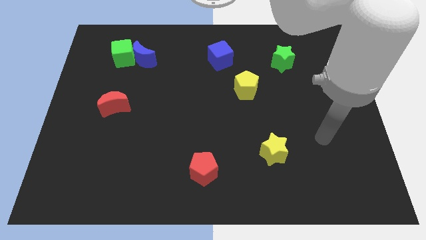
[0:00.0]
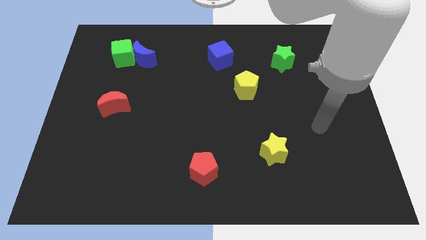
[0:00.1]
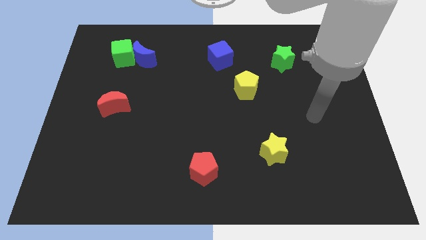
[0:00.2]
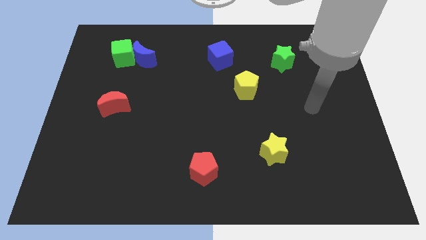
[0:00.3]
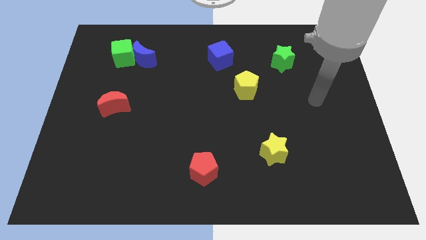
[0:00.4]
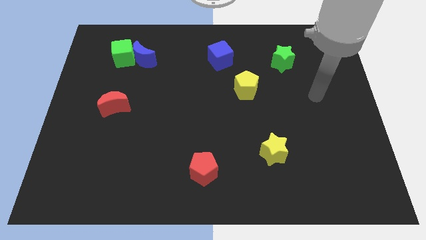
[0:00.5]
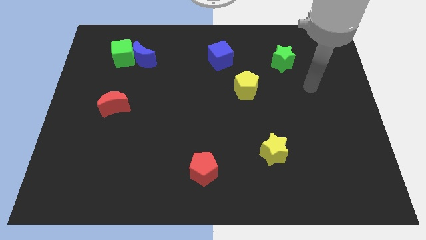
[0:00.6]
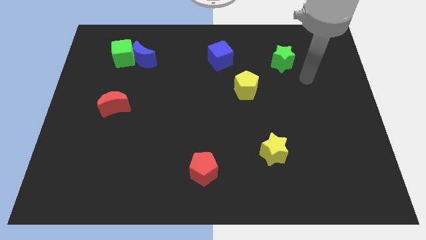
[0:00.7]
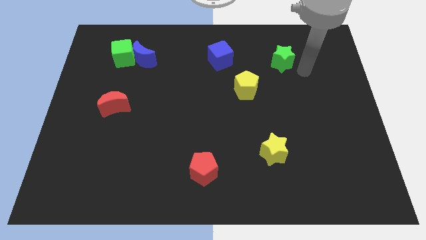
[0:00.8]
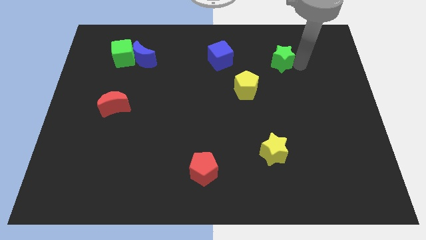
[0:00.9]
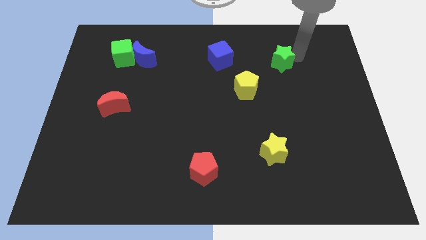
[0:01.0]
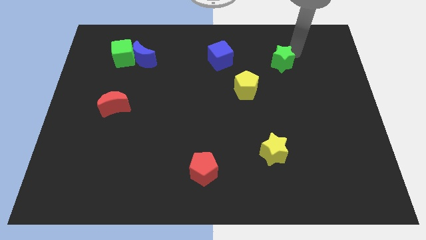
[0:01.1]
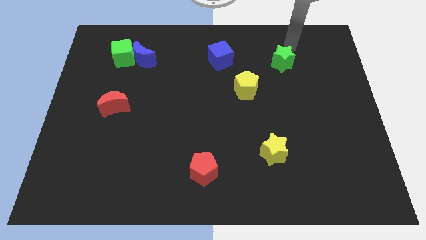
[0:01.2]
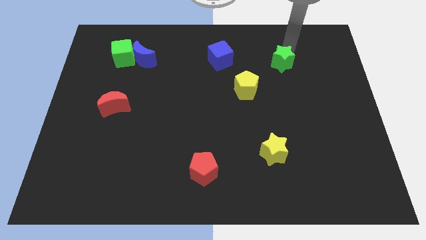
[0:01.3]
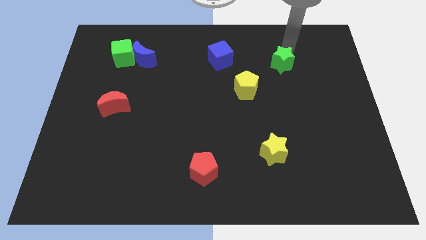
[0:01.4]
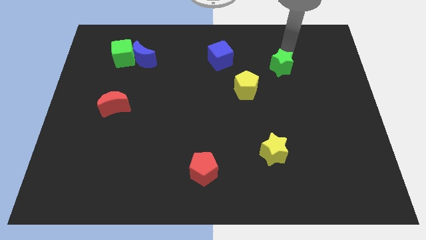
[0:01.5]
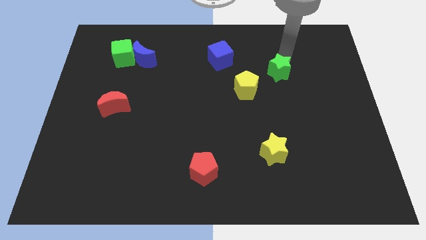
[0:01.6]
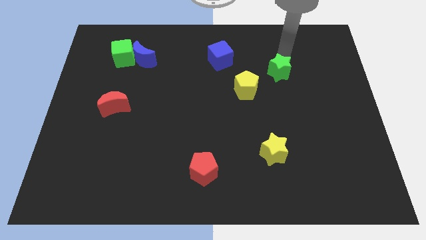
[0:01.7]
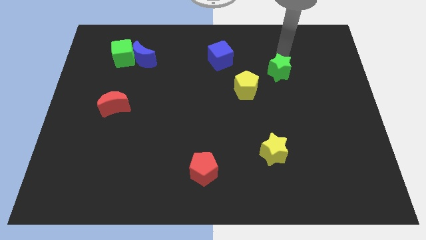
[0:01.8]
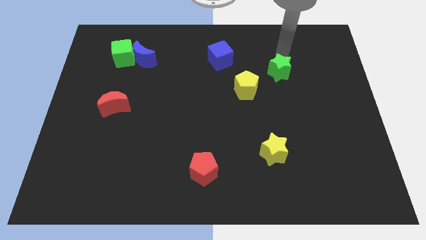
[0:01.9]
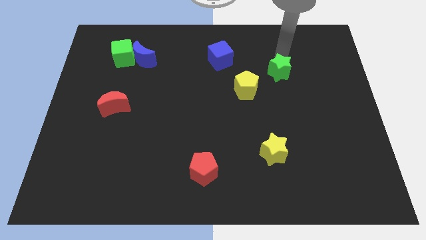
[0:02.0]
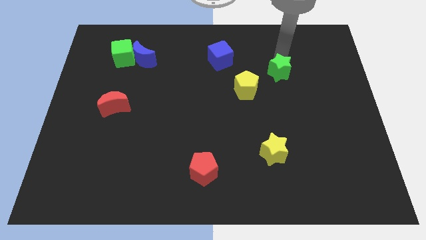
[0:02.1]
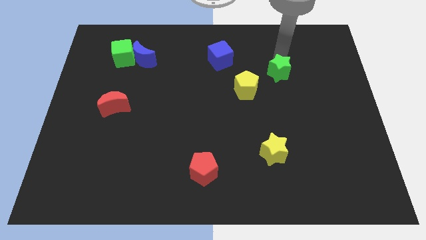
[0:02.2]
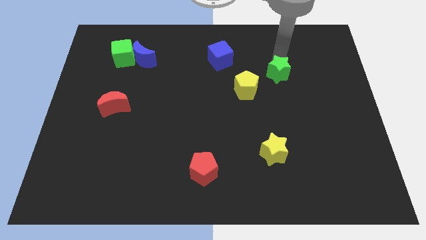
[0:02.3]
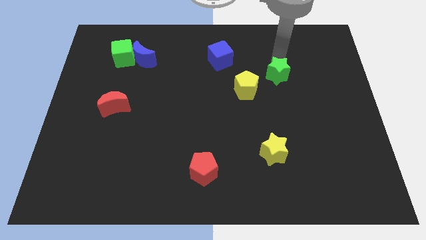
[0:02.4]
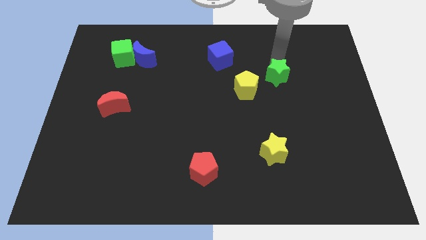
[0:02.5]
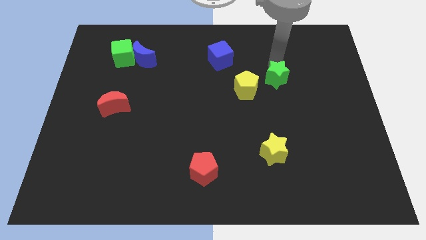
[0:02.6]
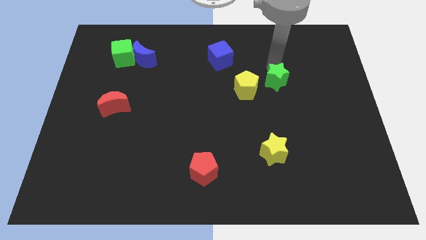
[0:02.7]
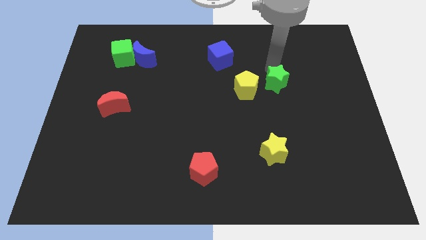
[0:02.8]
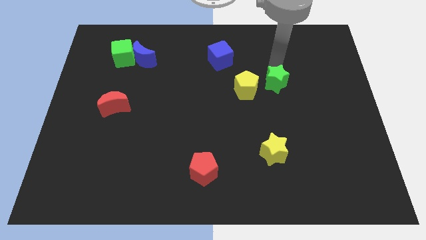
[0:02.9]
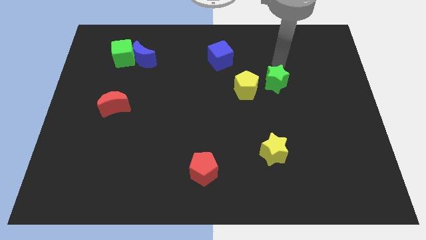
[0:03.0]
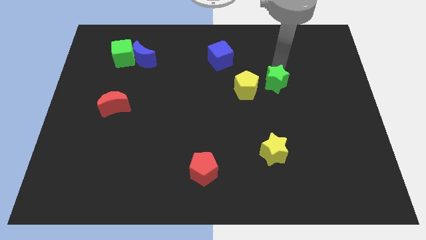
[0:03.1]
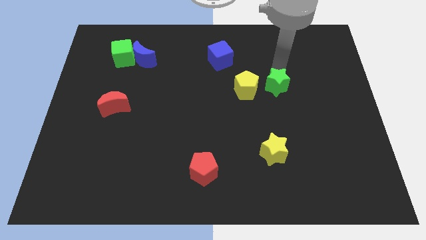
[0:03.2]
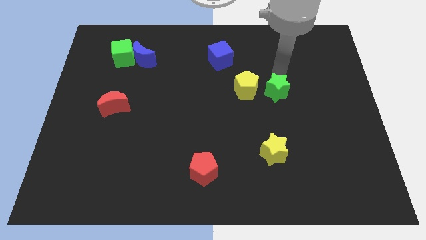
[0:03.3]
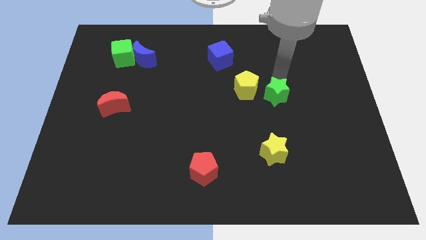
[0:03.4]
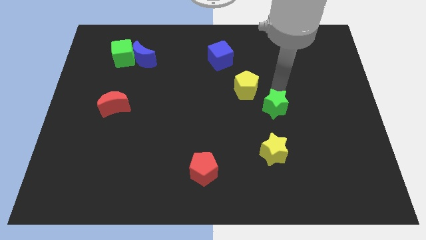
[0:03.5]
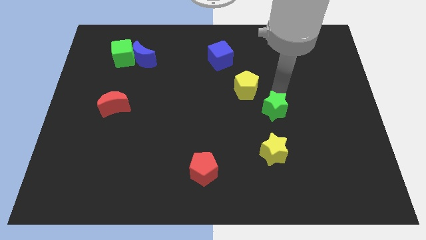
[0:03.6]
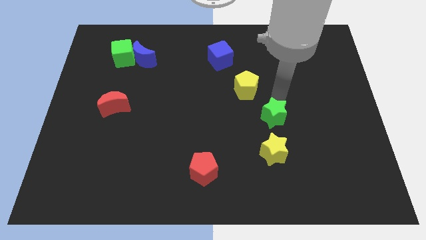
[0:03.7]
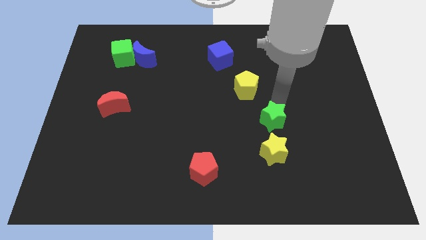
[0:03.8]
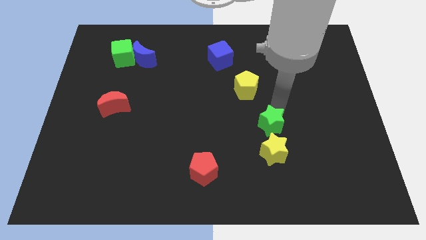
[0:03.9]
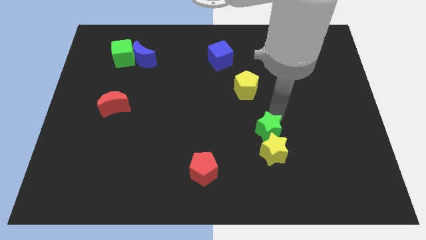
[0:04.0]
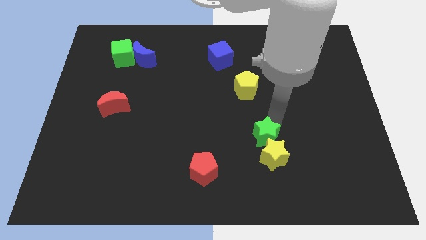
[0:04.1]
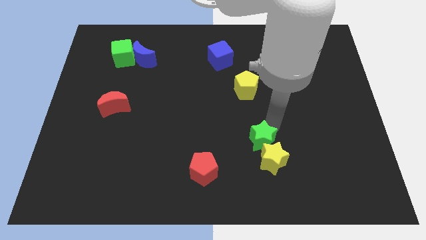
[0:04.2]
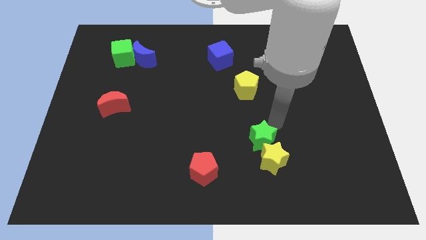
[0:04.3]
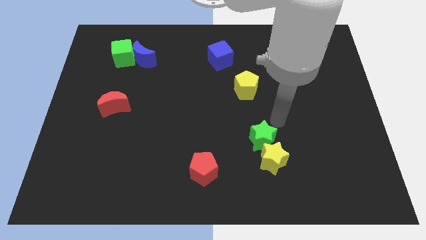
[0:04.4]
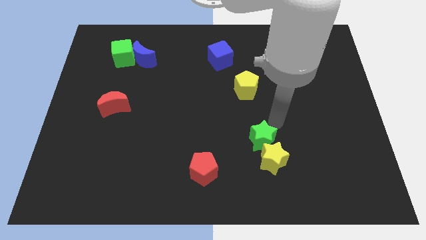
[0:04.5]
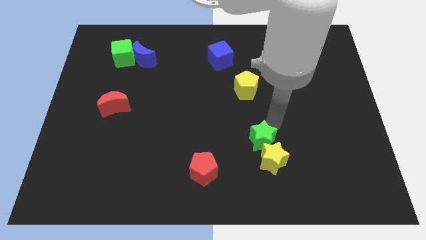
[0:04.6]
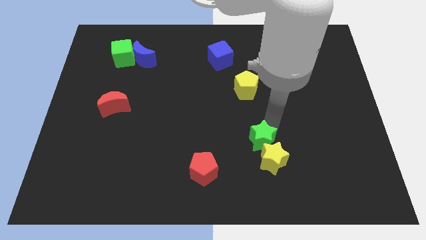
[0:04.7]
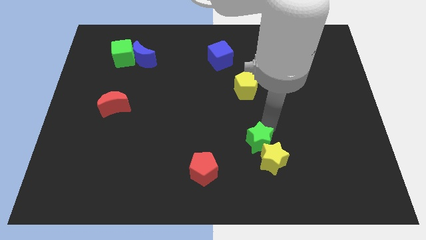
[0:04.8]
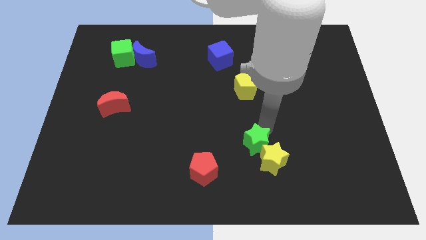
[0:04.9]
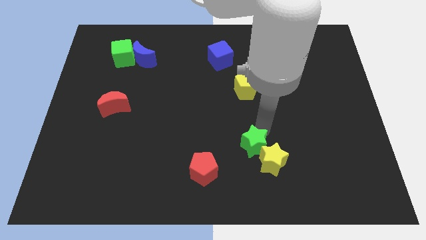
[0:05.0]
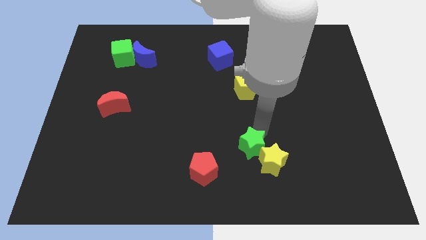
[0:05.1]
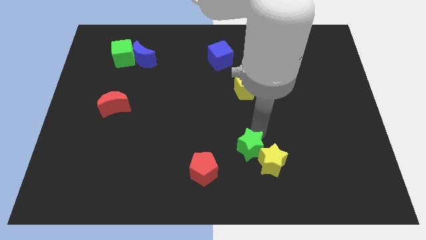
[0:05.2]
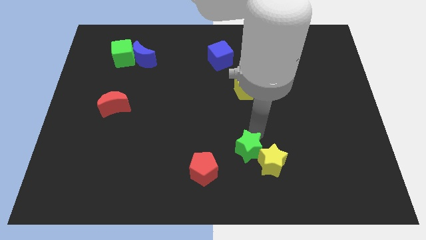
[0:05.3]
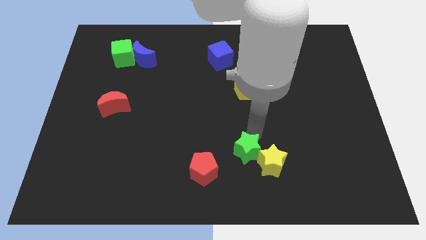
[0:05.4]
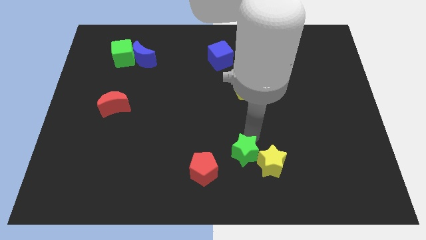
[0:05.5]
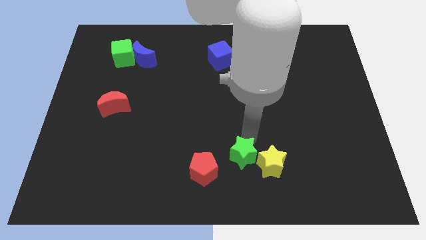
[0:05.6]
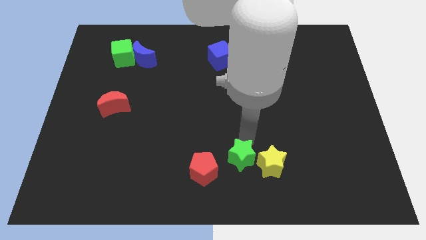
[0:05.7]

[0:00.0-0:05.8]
push the green star to the bottom
